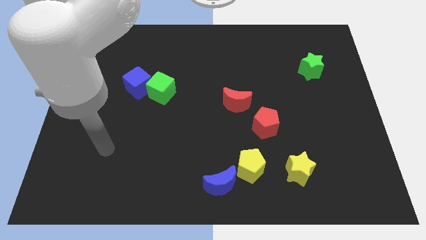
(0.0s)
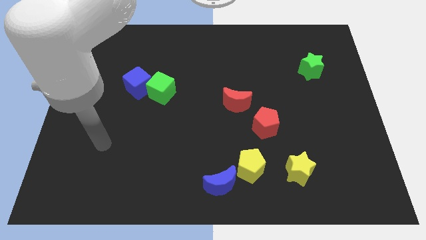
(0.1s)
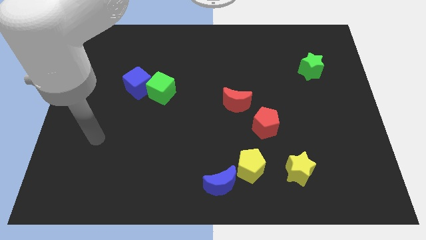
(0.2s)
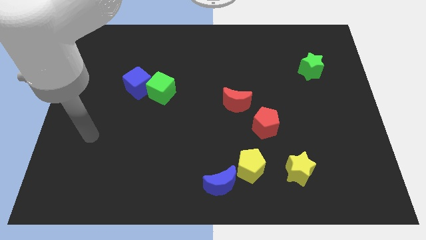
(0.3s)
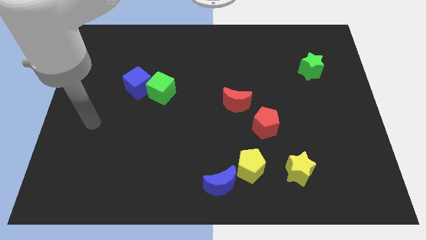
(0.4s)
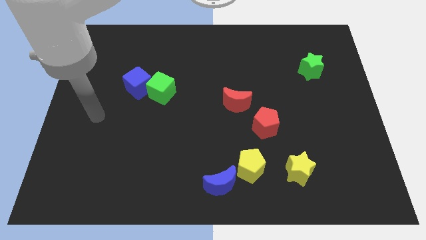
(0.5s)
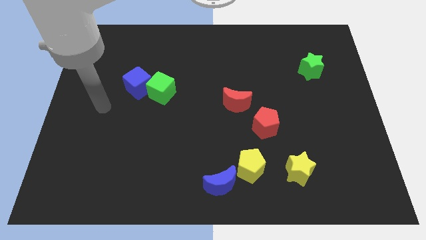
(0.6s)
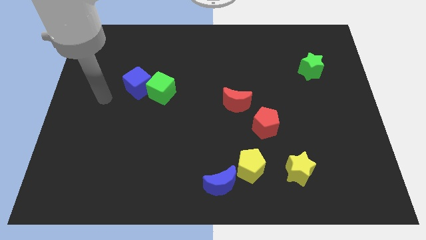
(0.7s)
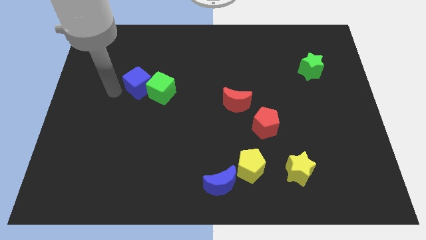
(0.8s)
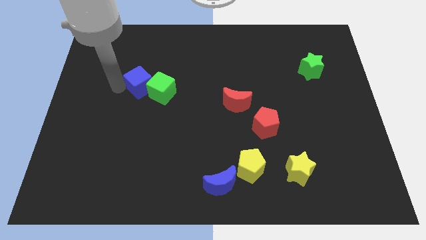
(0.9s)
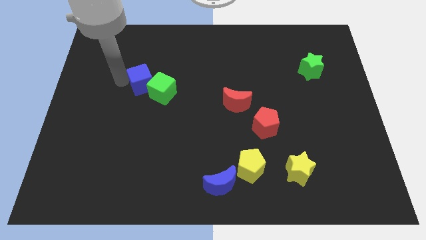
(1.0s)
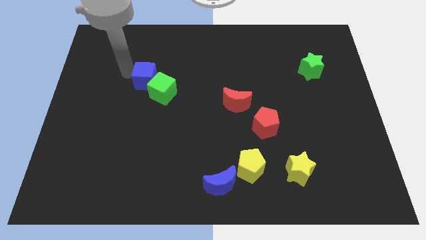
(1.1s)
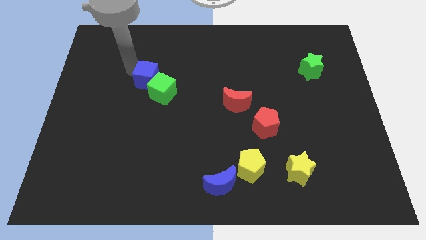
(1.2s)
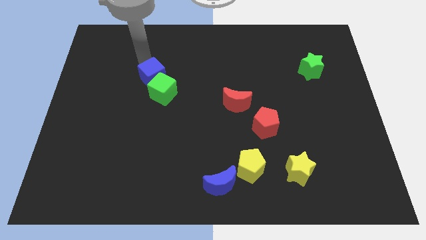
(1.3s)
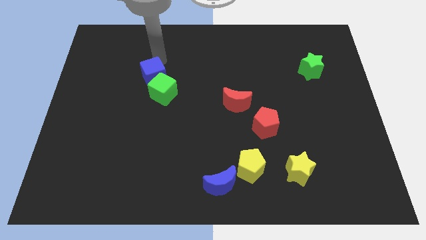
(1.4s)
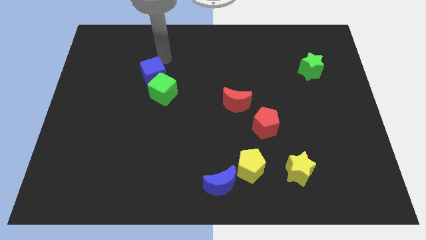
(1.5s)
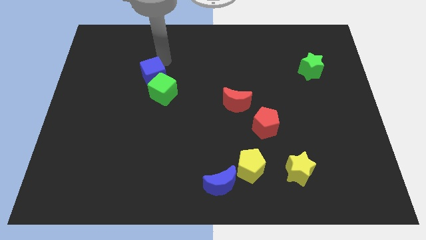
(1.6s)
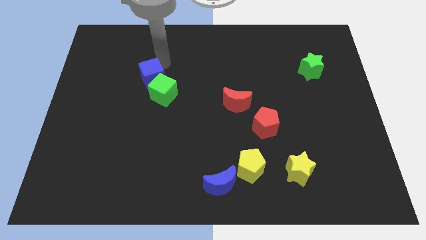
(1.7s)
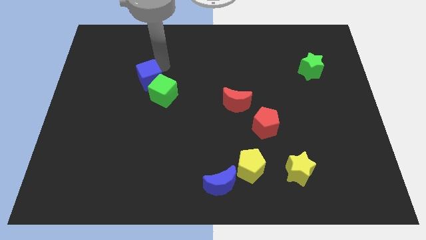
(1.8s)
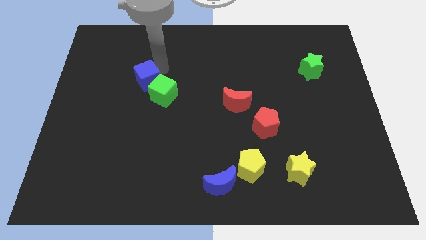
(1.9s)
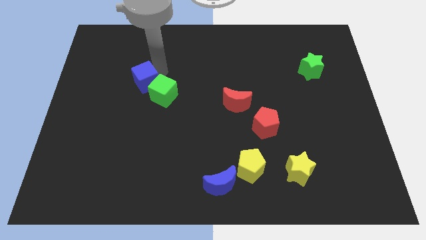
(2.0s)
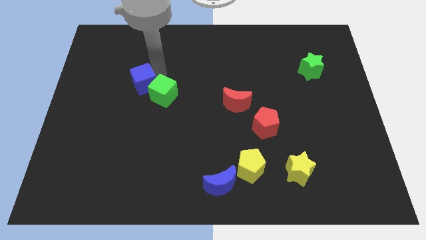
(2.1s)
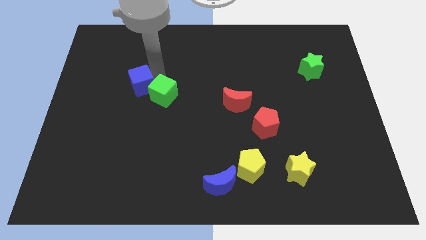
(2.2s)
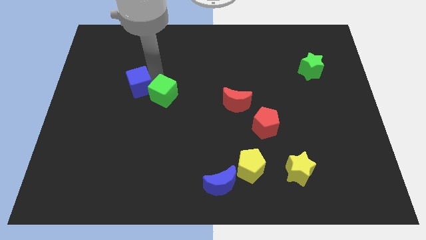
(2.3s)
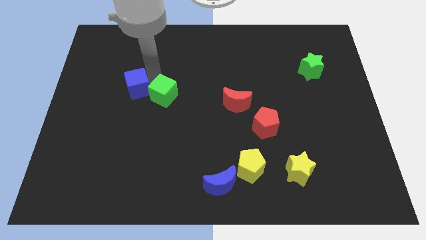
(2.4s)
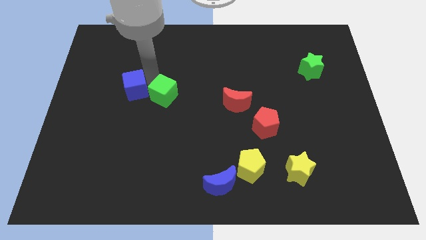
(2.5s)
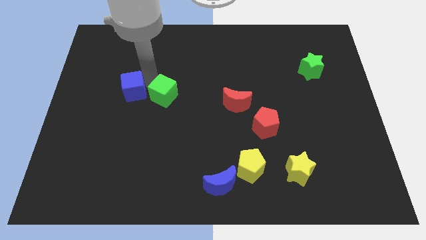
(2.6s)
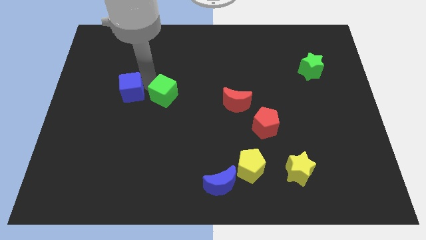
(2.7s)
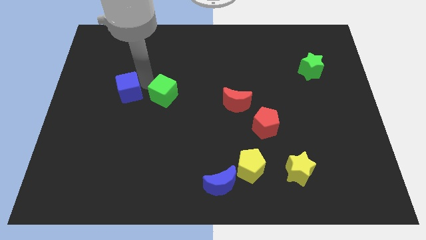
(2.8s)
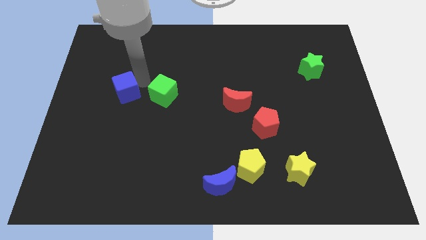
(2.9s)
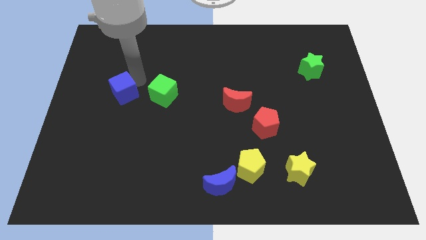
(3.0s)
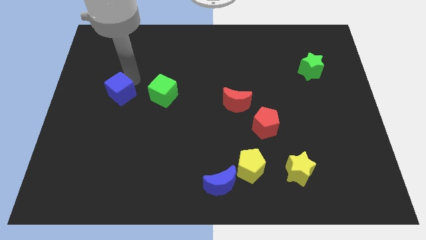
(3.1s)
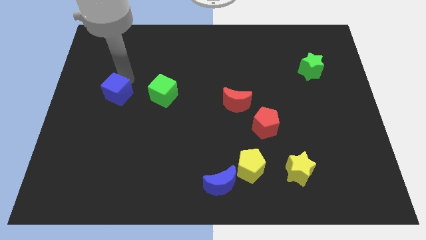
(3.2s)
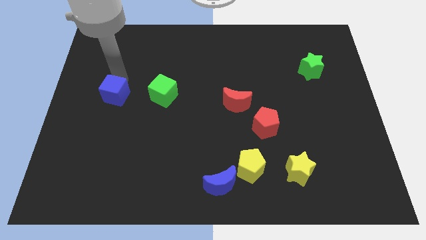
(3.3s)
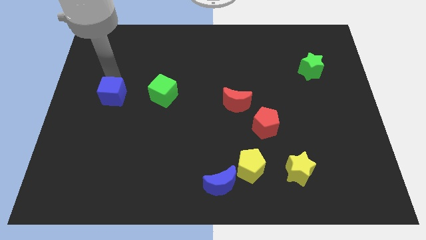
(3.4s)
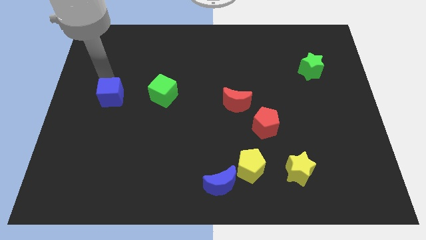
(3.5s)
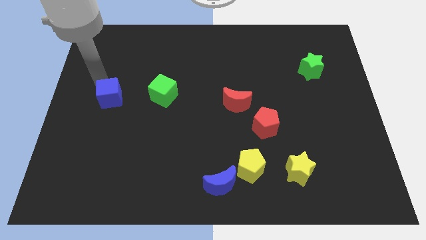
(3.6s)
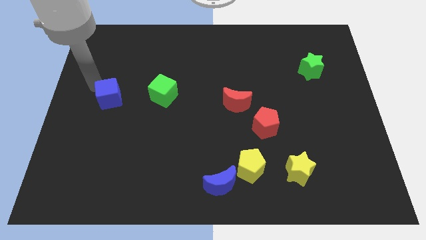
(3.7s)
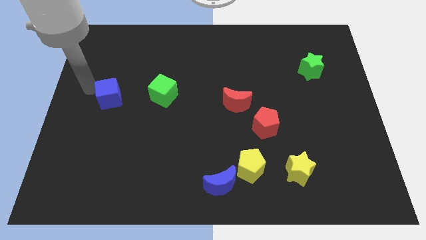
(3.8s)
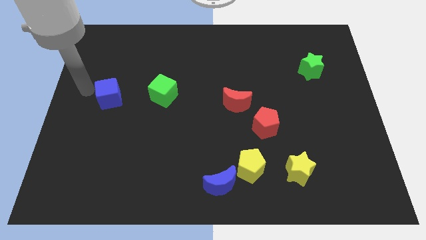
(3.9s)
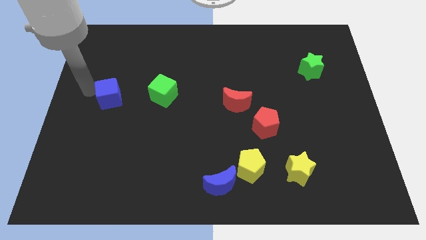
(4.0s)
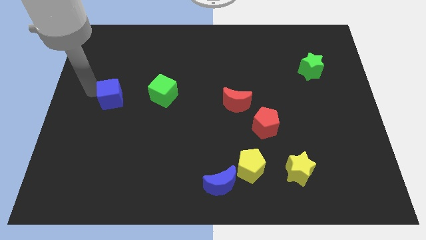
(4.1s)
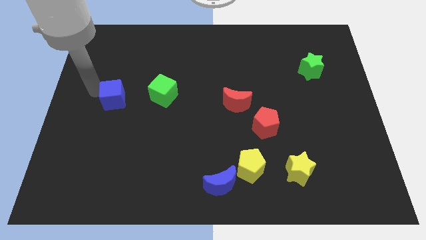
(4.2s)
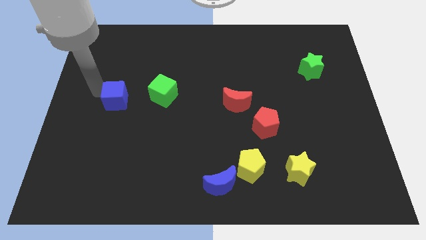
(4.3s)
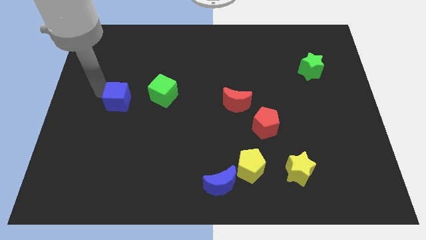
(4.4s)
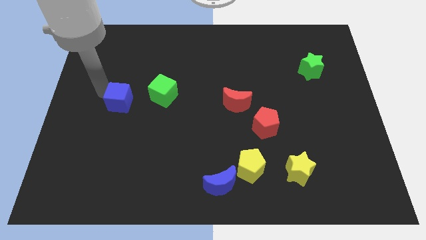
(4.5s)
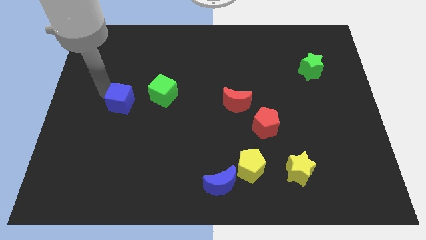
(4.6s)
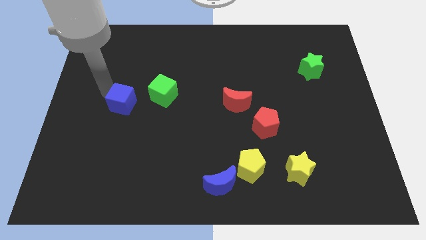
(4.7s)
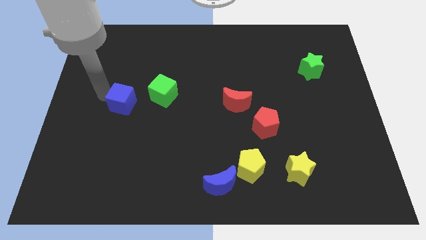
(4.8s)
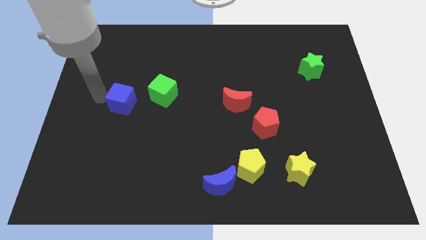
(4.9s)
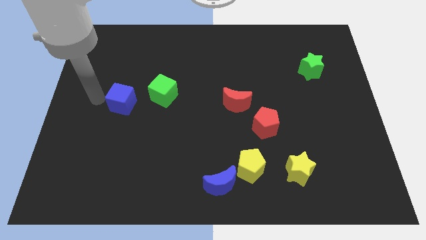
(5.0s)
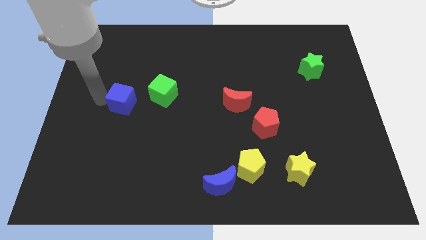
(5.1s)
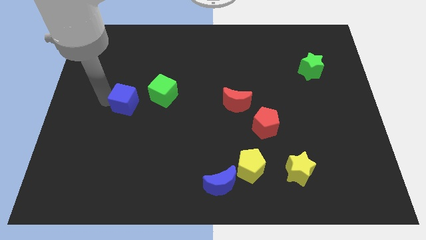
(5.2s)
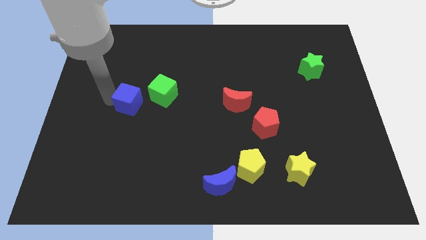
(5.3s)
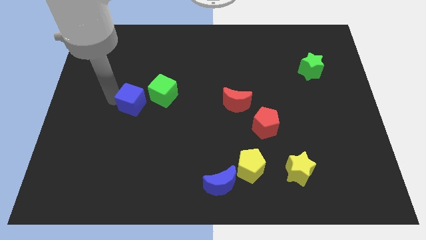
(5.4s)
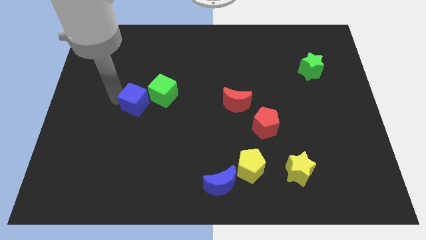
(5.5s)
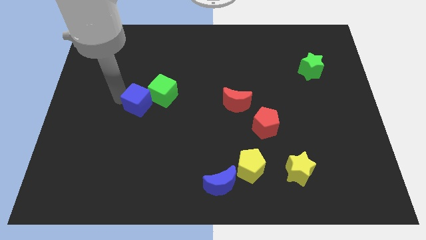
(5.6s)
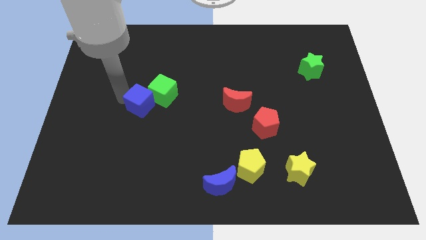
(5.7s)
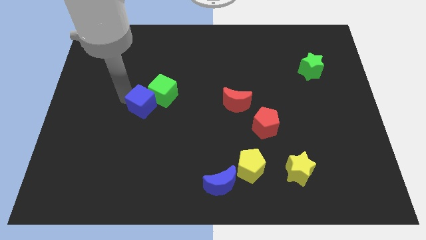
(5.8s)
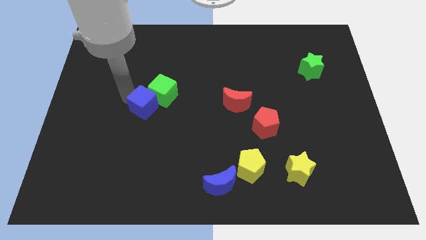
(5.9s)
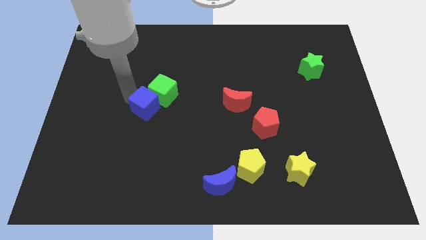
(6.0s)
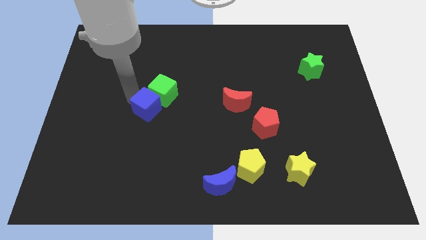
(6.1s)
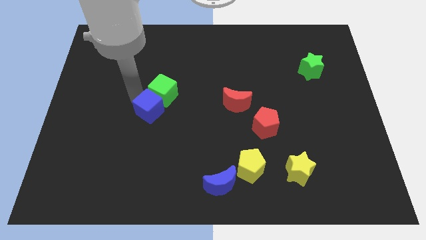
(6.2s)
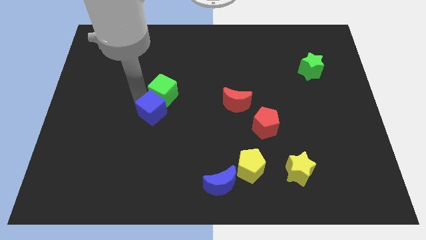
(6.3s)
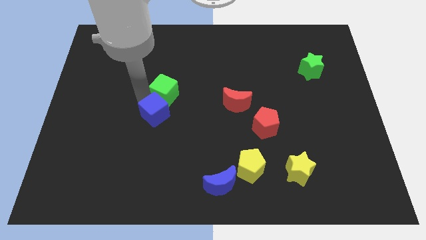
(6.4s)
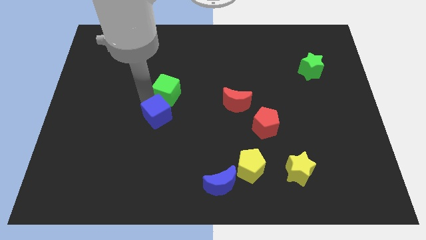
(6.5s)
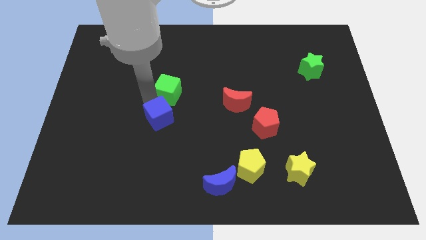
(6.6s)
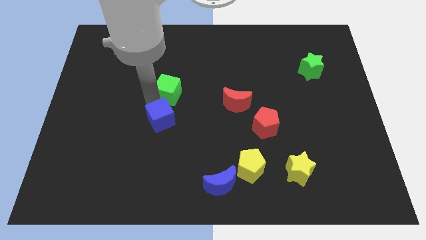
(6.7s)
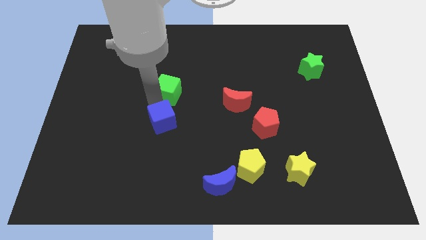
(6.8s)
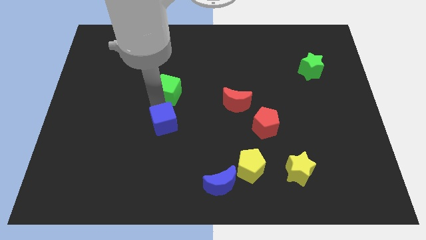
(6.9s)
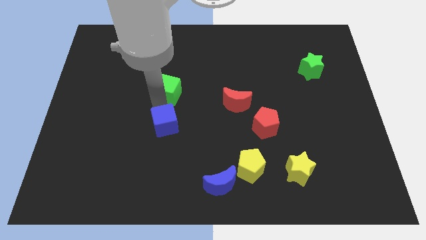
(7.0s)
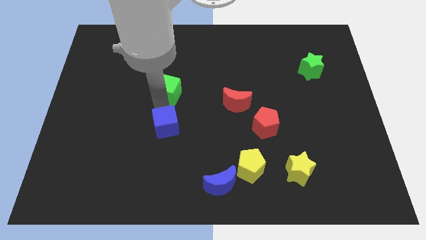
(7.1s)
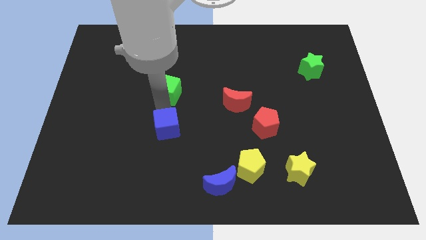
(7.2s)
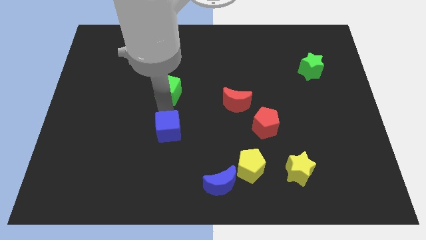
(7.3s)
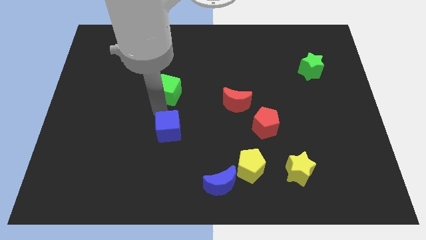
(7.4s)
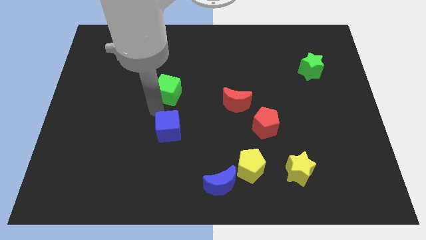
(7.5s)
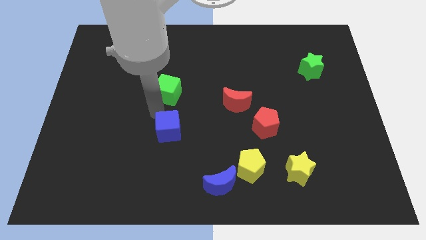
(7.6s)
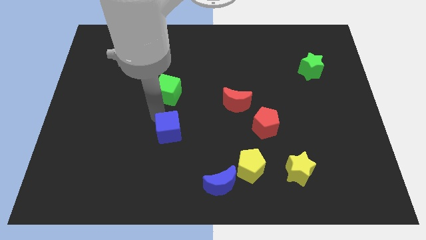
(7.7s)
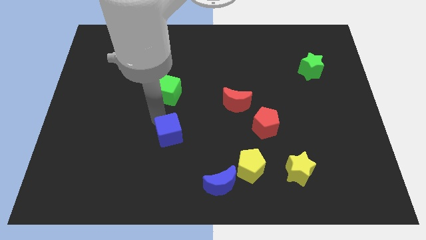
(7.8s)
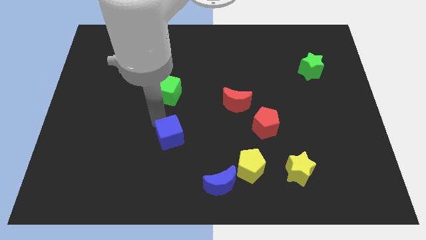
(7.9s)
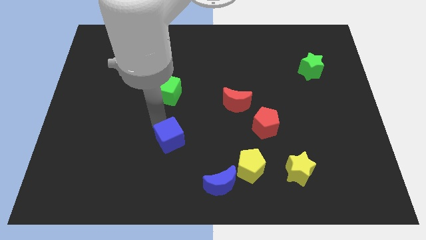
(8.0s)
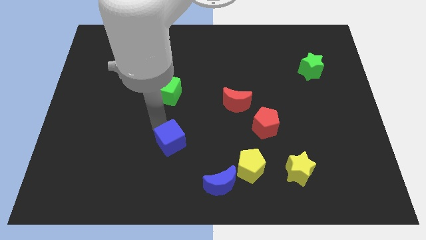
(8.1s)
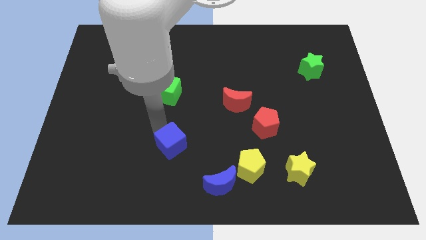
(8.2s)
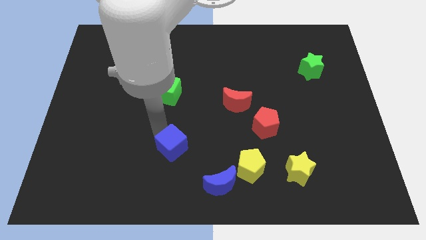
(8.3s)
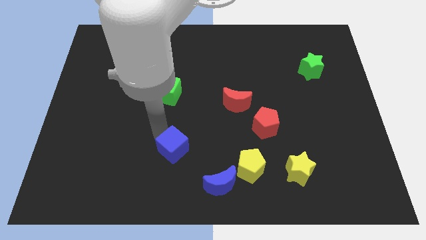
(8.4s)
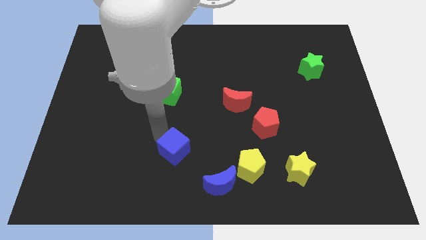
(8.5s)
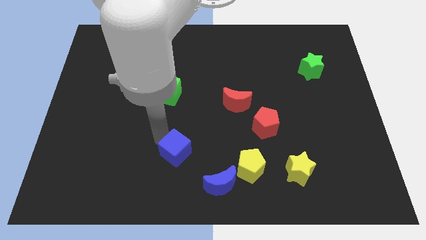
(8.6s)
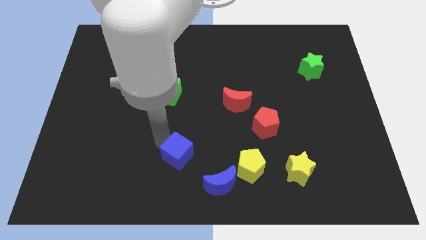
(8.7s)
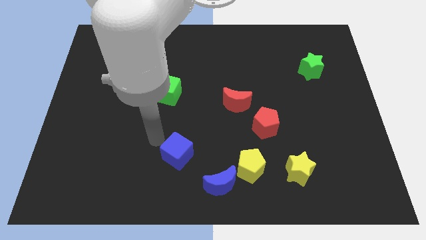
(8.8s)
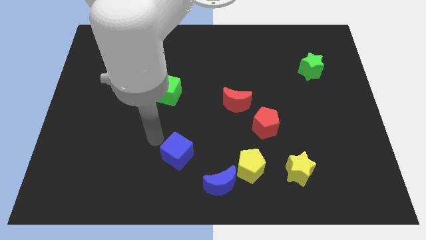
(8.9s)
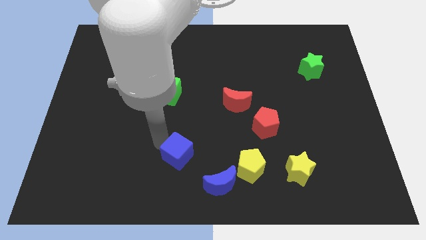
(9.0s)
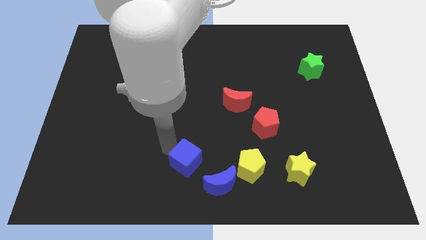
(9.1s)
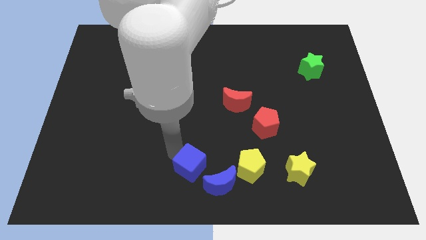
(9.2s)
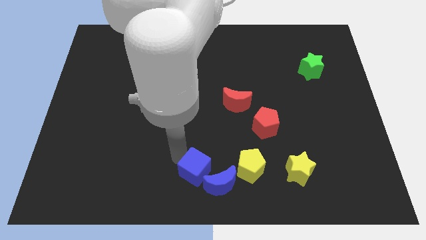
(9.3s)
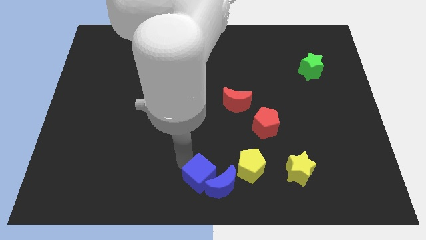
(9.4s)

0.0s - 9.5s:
put the blue cube close to the blue moon
